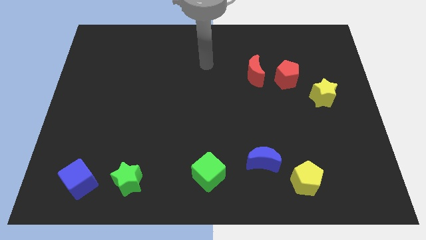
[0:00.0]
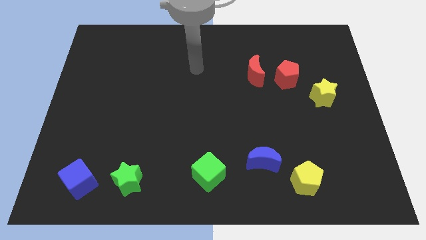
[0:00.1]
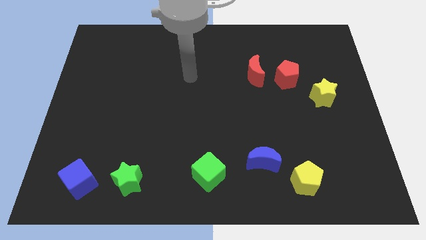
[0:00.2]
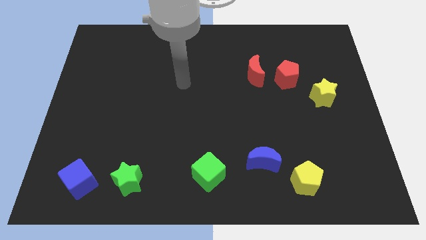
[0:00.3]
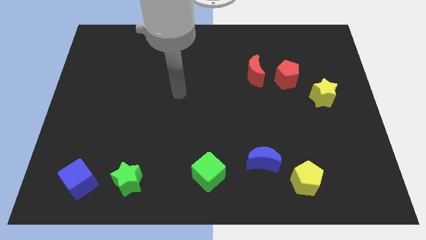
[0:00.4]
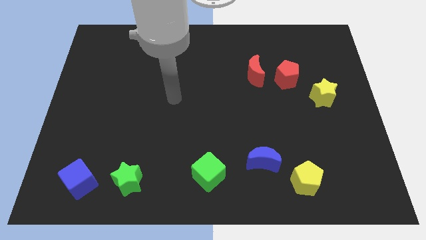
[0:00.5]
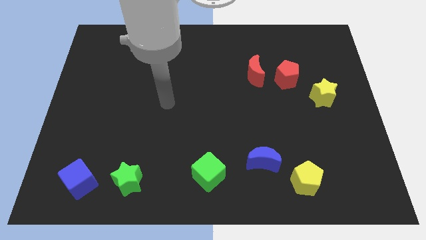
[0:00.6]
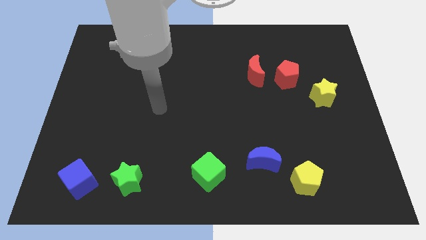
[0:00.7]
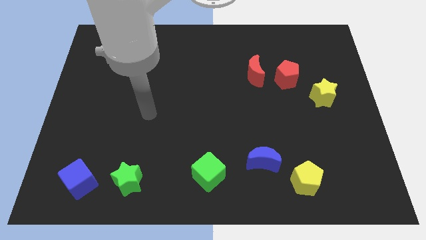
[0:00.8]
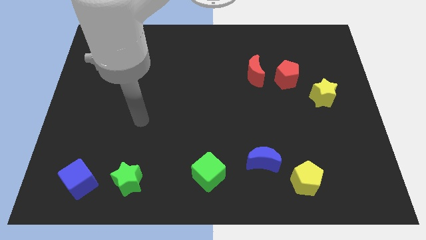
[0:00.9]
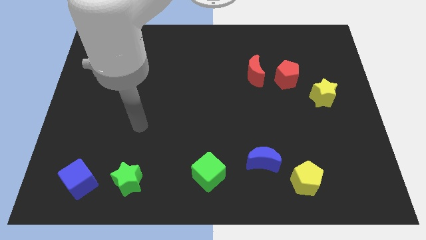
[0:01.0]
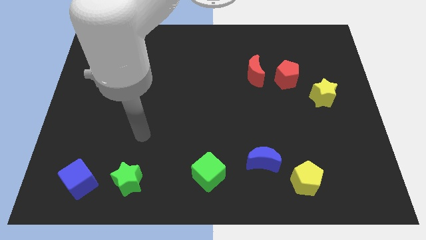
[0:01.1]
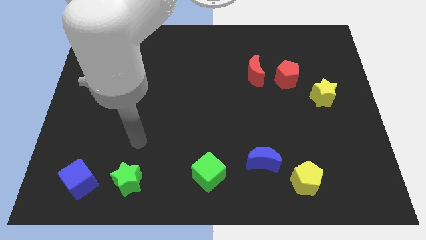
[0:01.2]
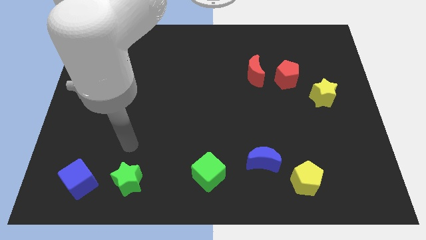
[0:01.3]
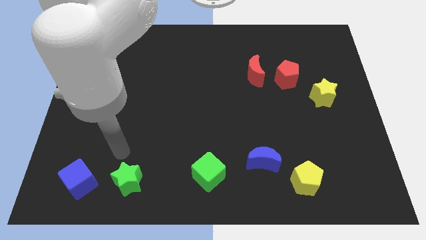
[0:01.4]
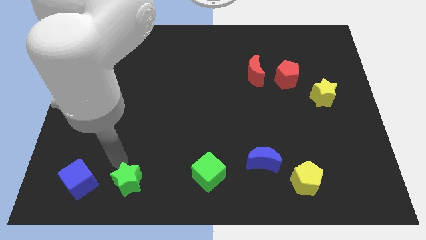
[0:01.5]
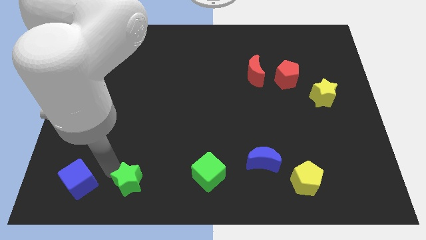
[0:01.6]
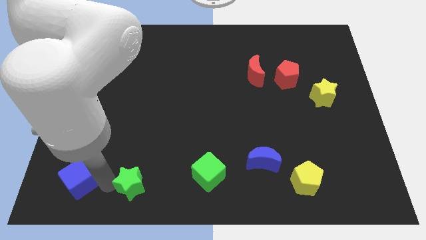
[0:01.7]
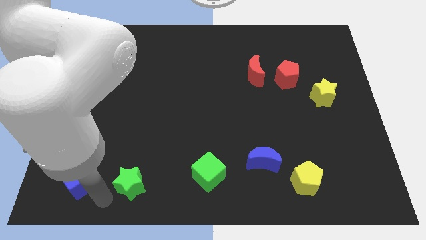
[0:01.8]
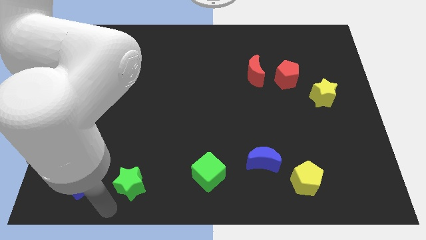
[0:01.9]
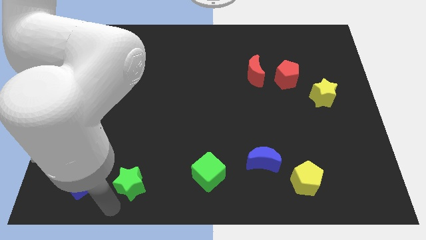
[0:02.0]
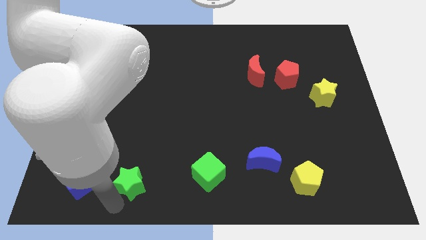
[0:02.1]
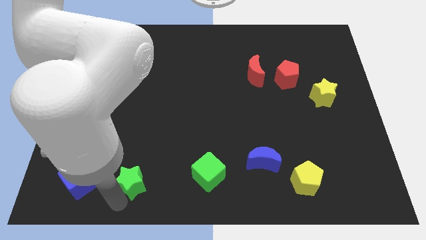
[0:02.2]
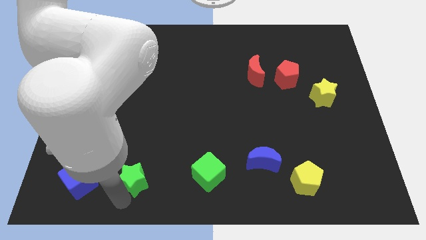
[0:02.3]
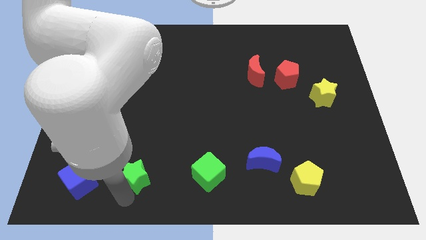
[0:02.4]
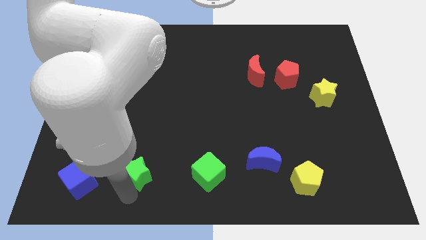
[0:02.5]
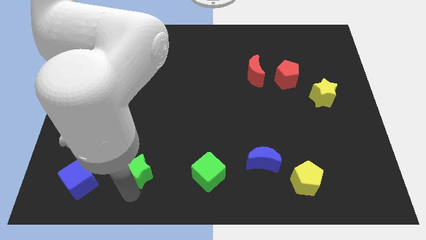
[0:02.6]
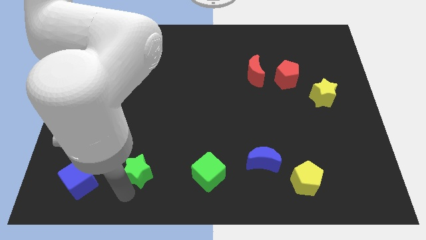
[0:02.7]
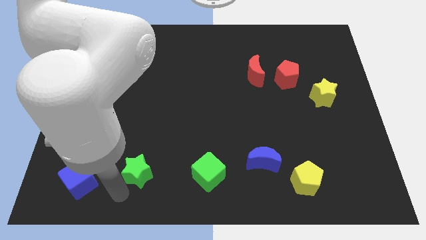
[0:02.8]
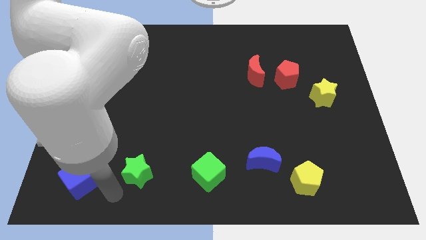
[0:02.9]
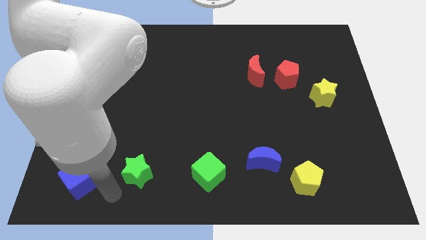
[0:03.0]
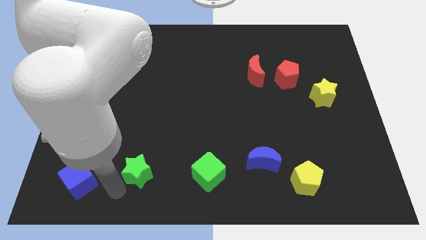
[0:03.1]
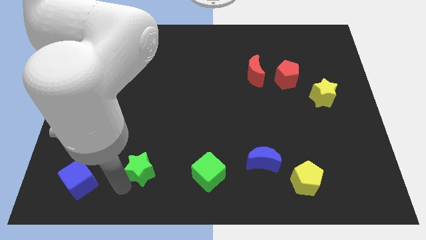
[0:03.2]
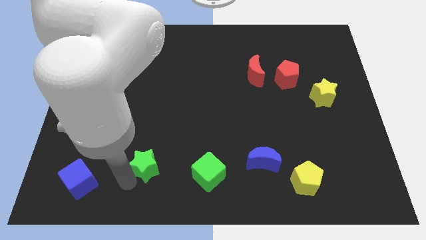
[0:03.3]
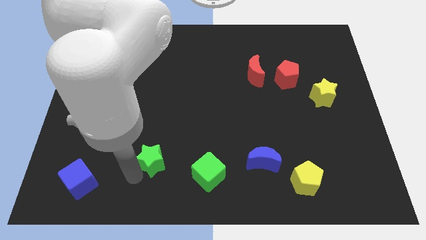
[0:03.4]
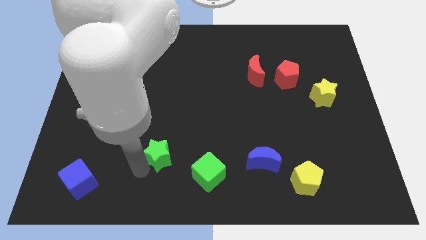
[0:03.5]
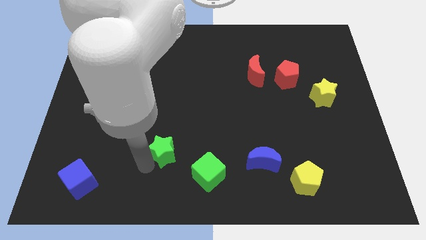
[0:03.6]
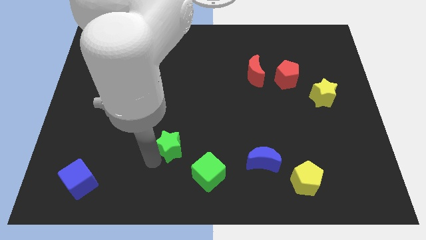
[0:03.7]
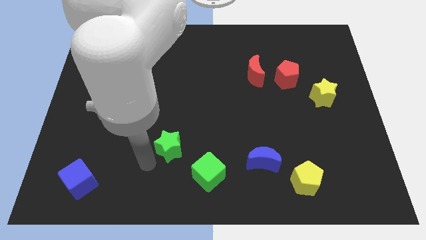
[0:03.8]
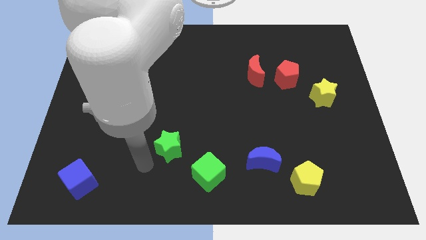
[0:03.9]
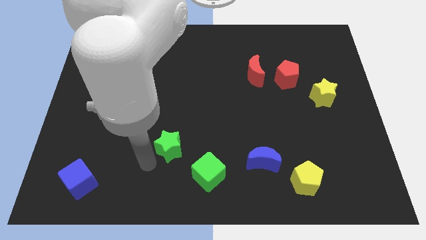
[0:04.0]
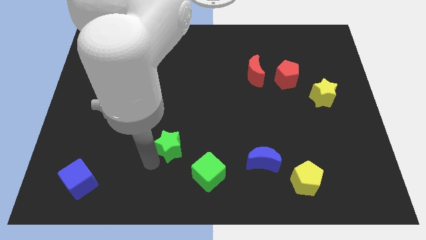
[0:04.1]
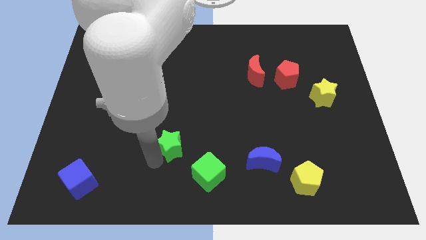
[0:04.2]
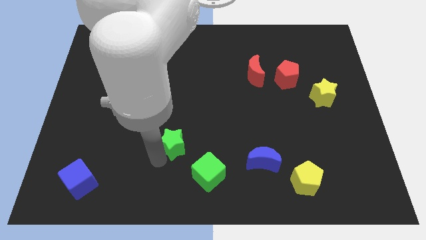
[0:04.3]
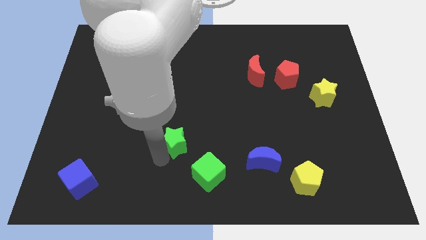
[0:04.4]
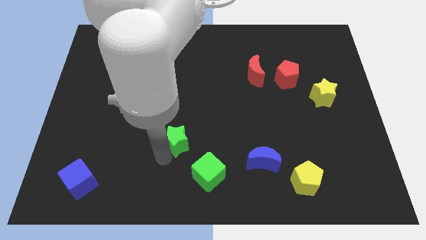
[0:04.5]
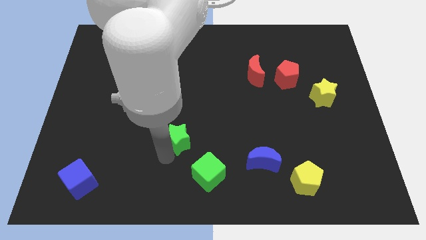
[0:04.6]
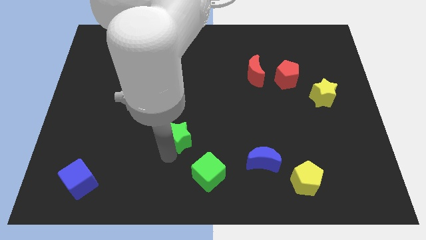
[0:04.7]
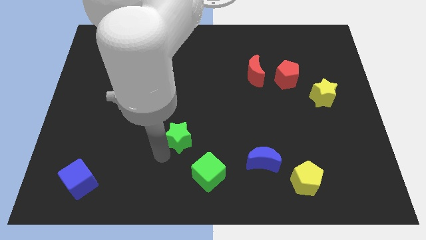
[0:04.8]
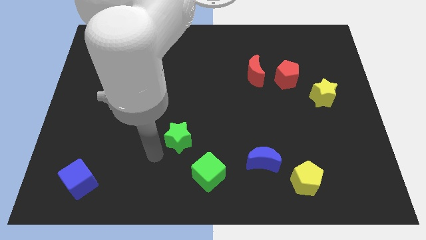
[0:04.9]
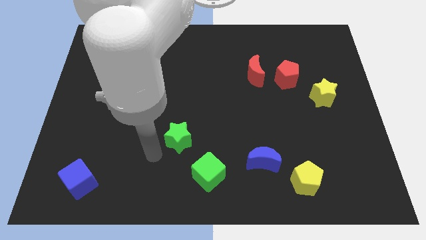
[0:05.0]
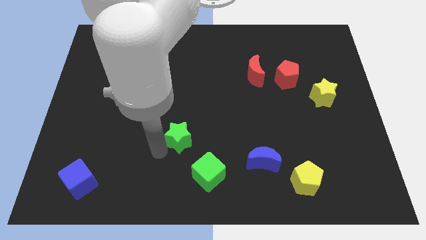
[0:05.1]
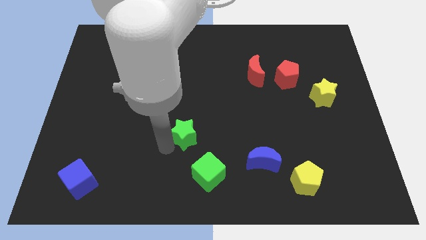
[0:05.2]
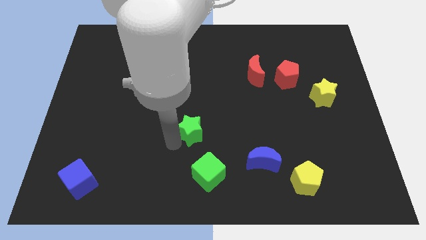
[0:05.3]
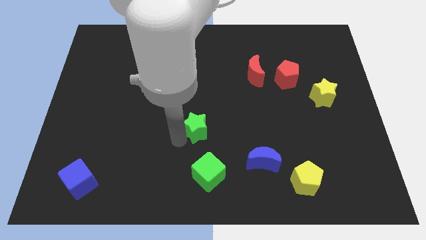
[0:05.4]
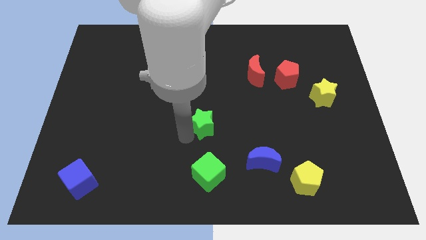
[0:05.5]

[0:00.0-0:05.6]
move the green star up and then right

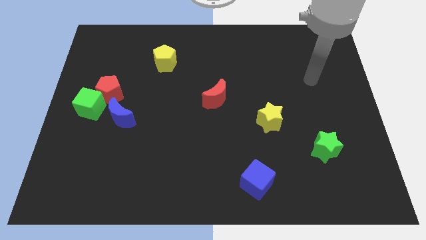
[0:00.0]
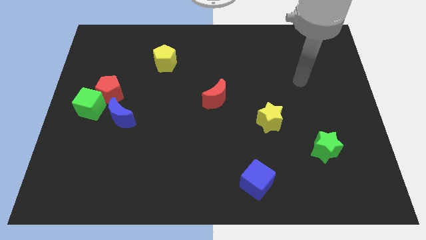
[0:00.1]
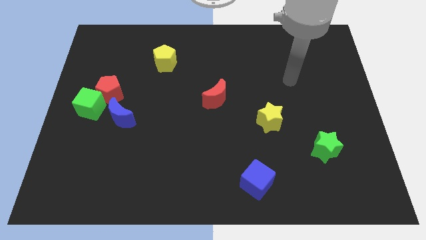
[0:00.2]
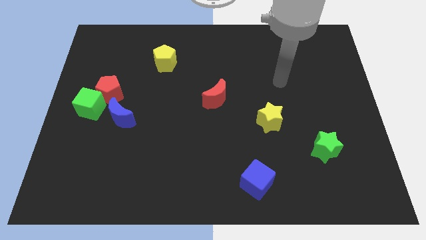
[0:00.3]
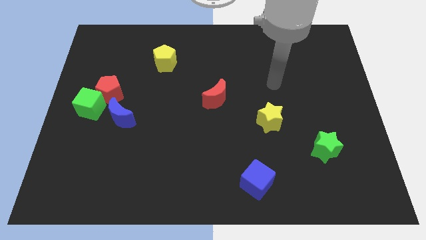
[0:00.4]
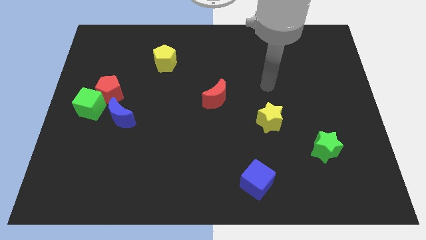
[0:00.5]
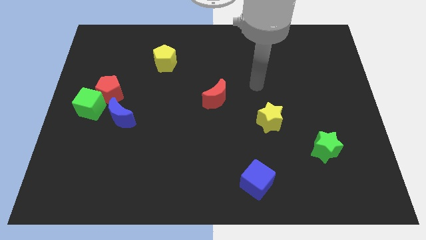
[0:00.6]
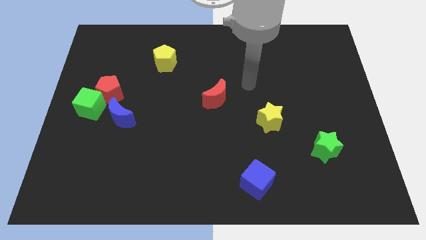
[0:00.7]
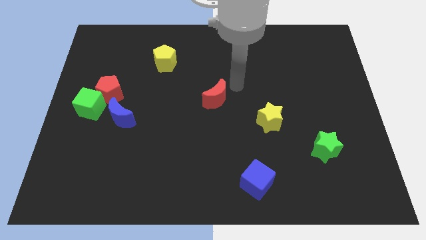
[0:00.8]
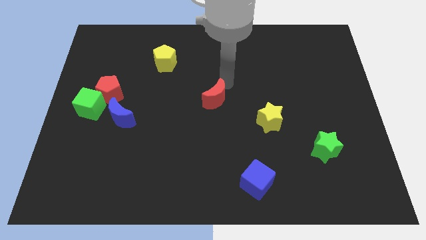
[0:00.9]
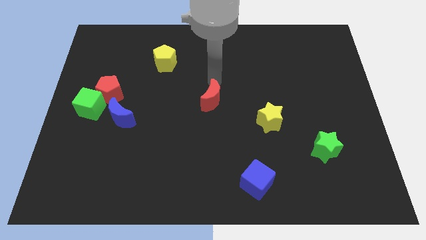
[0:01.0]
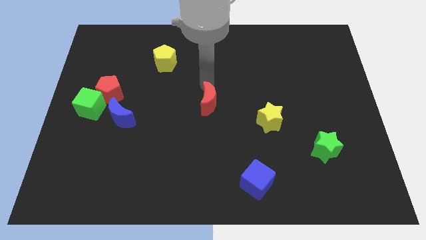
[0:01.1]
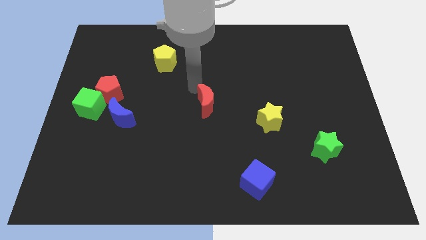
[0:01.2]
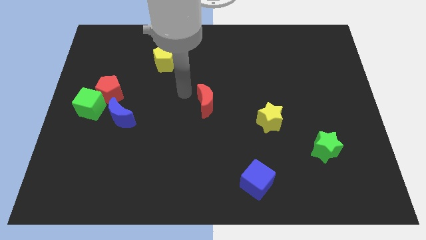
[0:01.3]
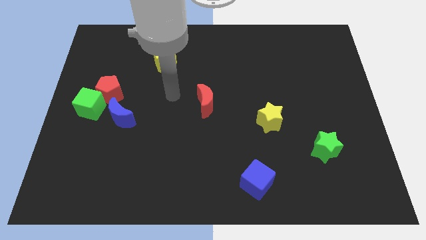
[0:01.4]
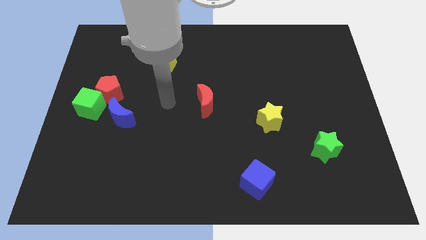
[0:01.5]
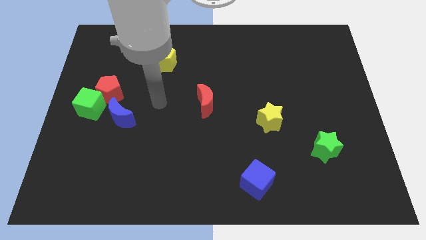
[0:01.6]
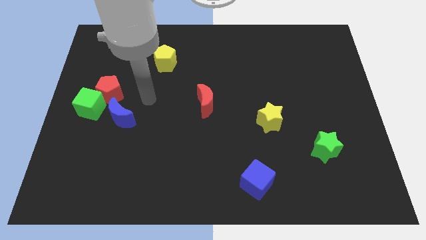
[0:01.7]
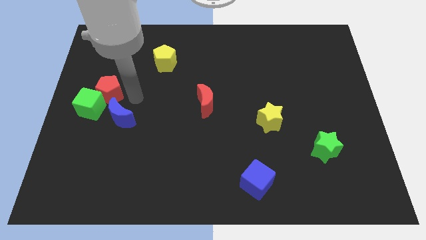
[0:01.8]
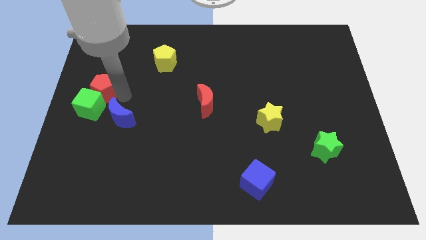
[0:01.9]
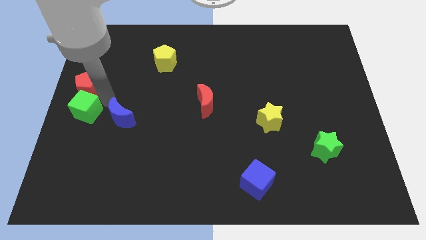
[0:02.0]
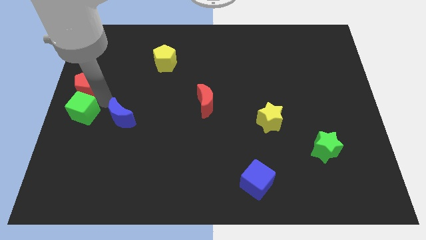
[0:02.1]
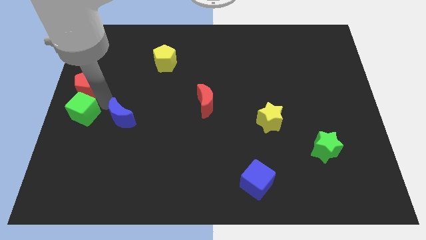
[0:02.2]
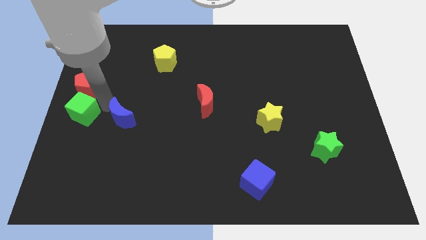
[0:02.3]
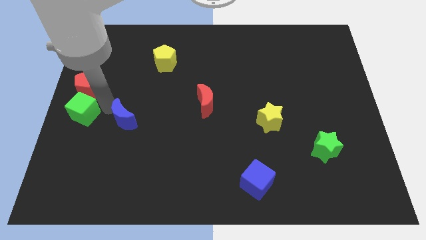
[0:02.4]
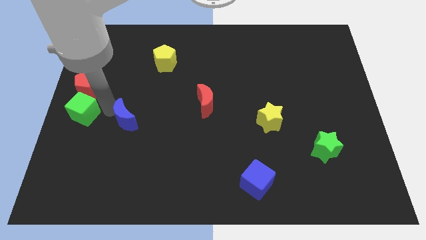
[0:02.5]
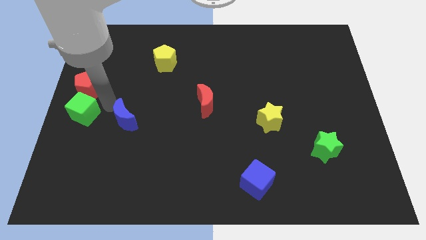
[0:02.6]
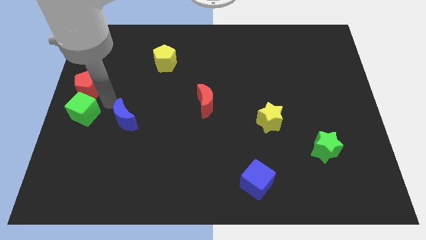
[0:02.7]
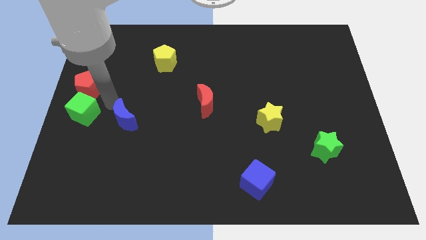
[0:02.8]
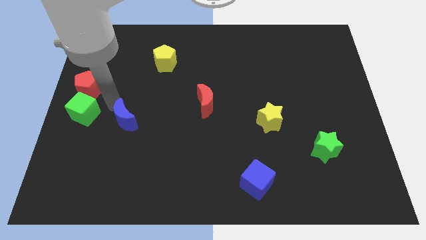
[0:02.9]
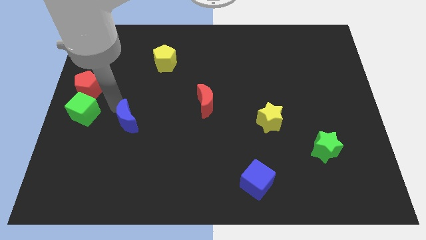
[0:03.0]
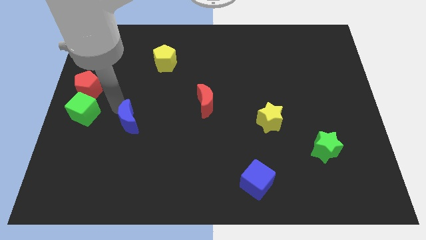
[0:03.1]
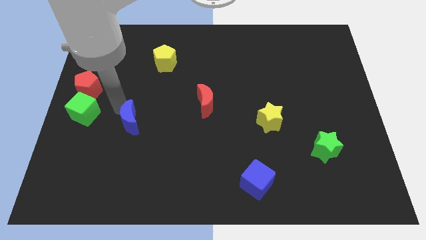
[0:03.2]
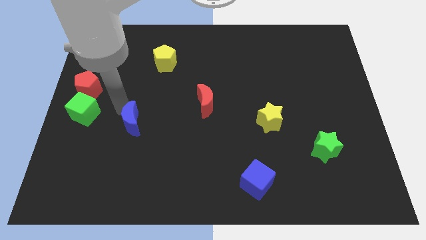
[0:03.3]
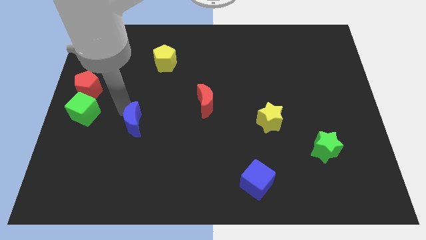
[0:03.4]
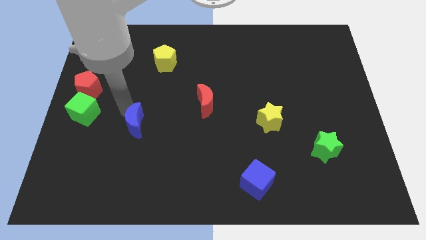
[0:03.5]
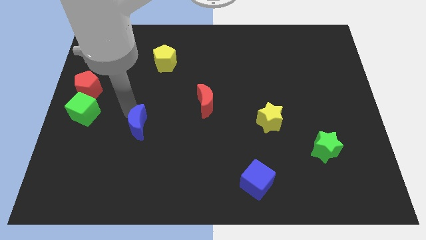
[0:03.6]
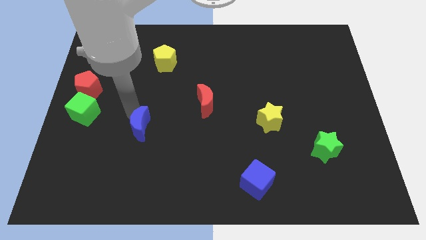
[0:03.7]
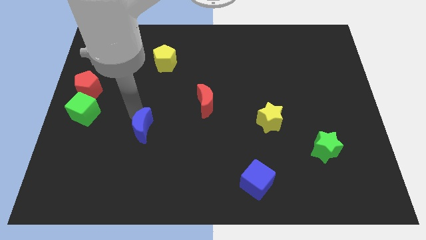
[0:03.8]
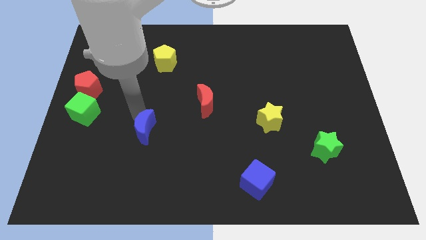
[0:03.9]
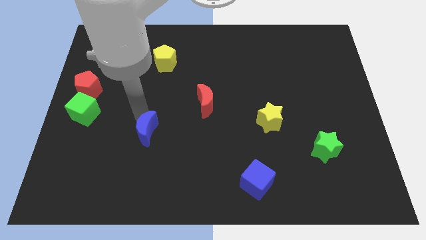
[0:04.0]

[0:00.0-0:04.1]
slide the blue moon a bit down and right
